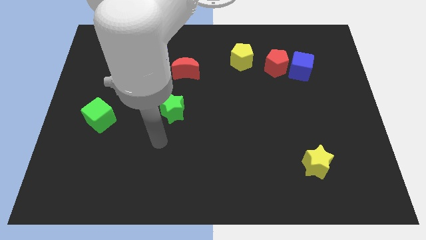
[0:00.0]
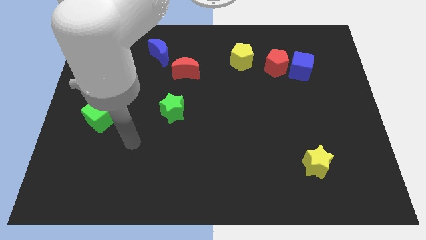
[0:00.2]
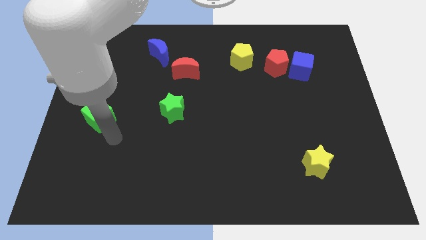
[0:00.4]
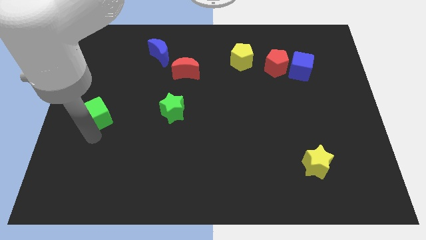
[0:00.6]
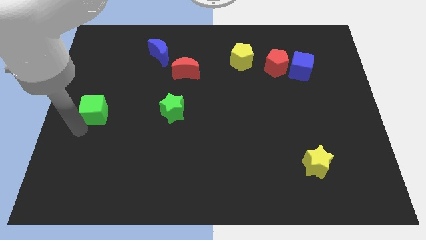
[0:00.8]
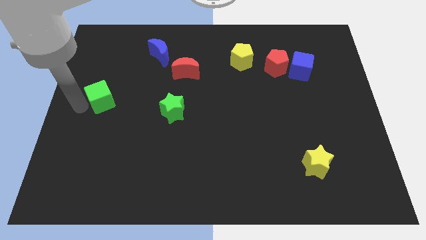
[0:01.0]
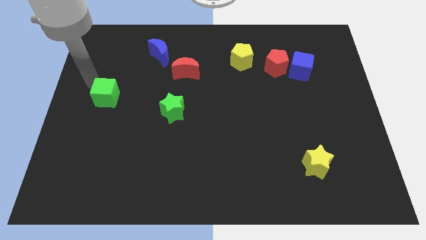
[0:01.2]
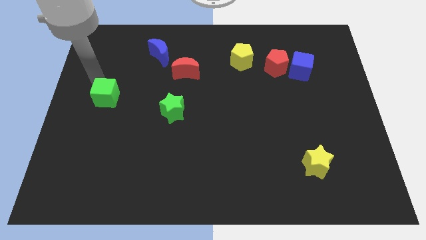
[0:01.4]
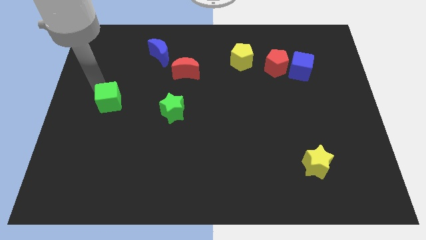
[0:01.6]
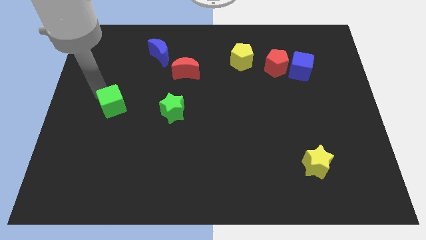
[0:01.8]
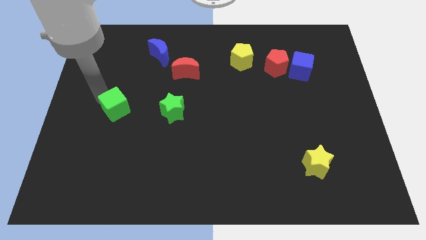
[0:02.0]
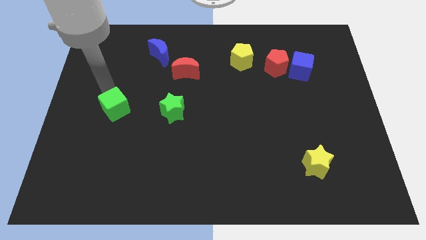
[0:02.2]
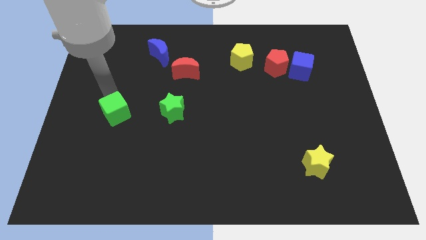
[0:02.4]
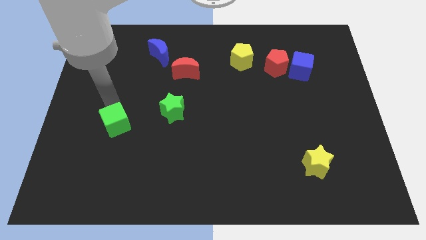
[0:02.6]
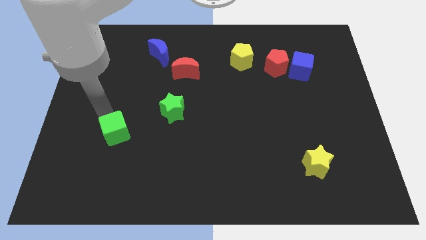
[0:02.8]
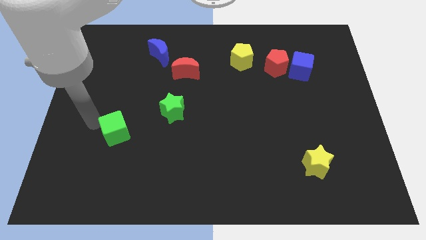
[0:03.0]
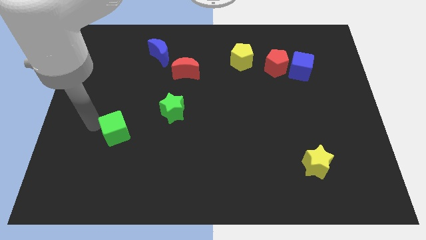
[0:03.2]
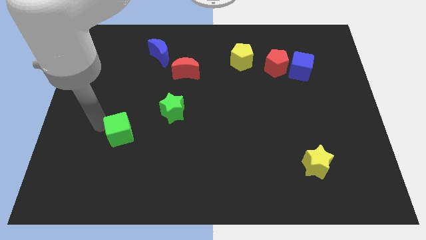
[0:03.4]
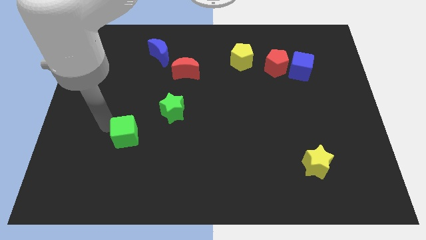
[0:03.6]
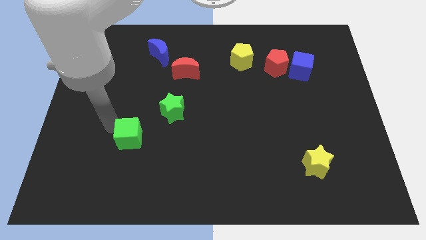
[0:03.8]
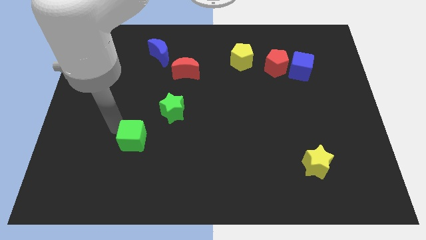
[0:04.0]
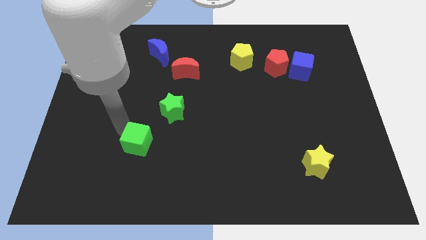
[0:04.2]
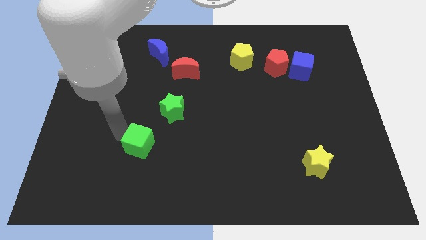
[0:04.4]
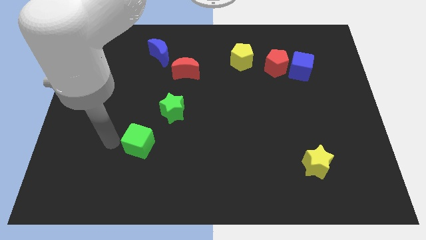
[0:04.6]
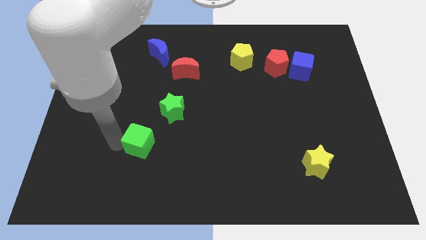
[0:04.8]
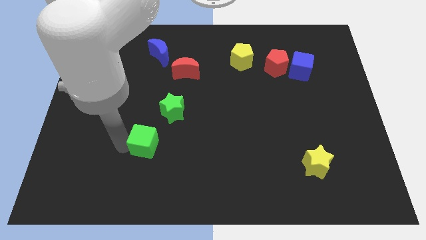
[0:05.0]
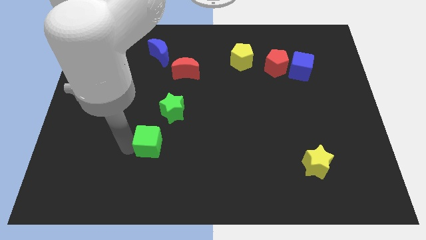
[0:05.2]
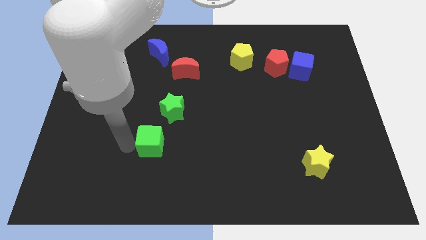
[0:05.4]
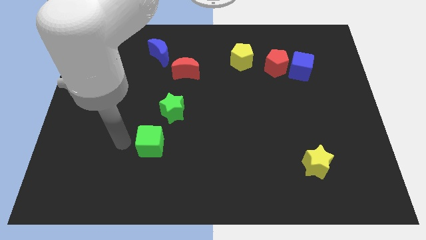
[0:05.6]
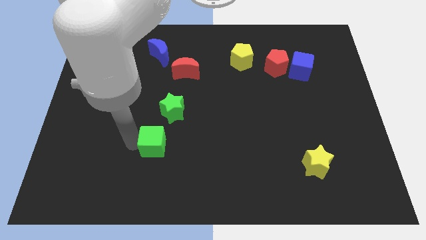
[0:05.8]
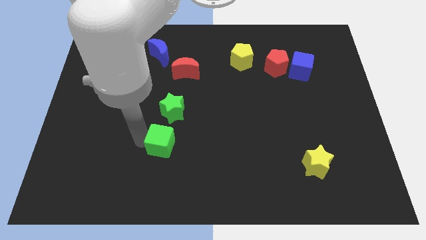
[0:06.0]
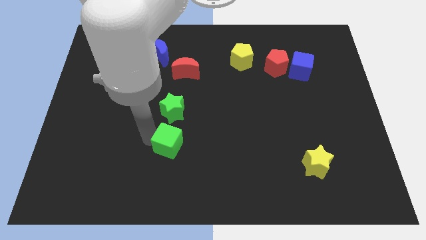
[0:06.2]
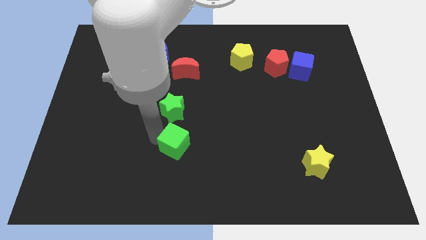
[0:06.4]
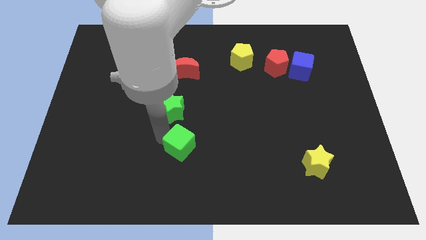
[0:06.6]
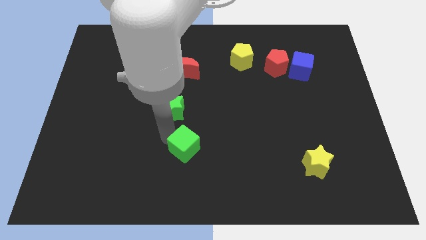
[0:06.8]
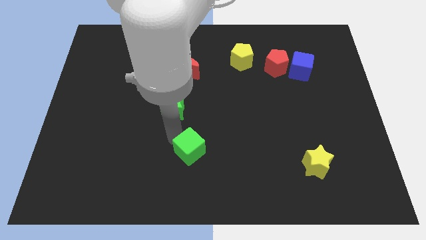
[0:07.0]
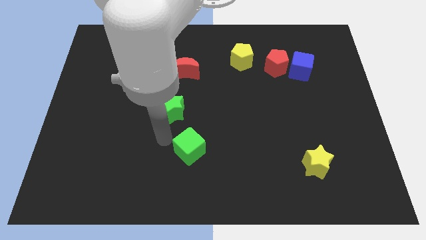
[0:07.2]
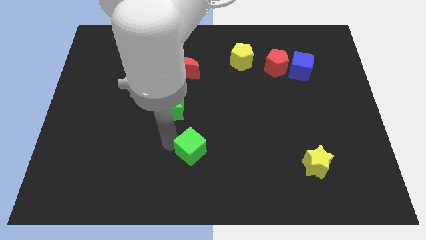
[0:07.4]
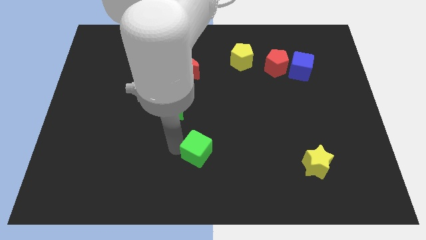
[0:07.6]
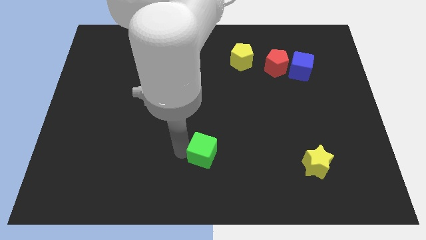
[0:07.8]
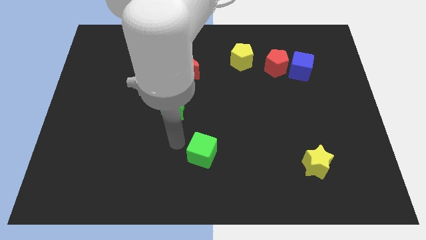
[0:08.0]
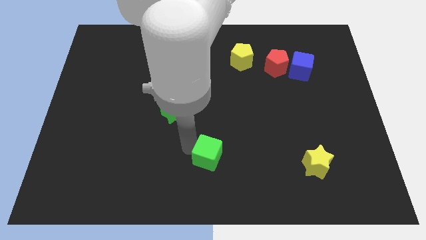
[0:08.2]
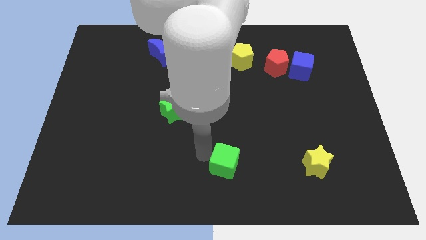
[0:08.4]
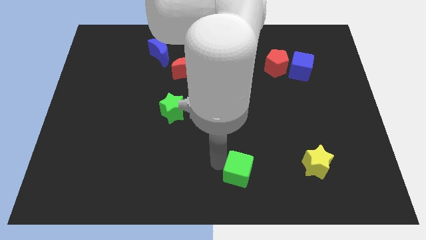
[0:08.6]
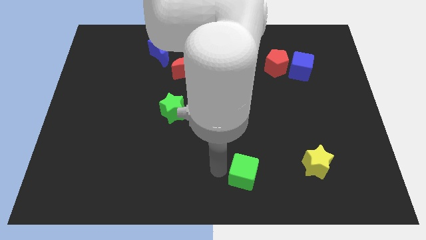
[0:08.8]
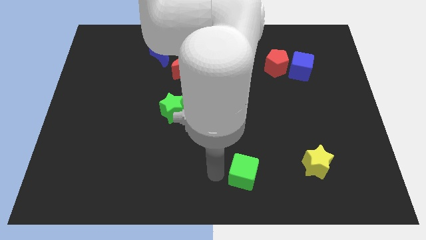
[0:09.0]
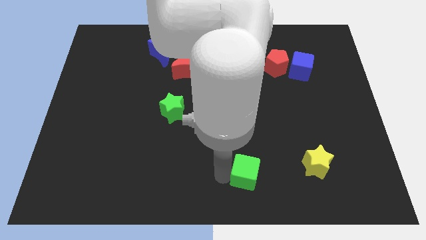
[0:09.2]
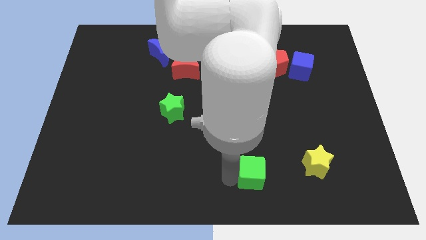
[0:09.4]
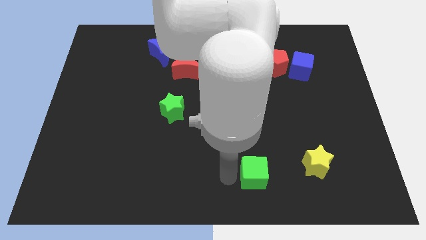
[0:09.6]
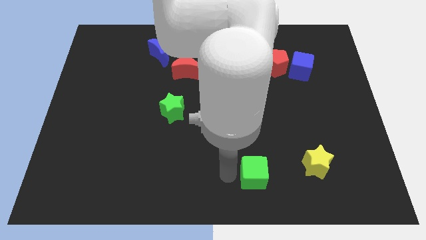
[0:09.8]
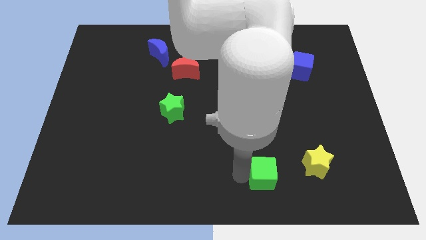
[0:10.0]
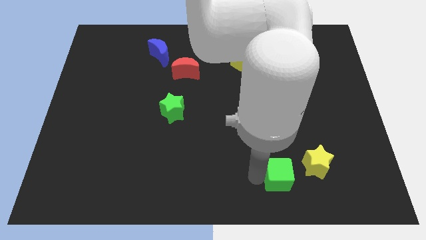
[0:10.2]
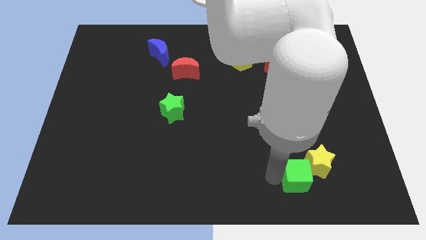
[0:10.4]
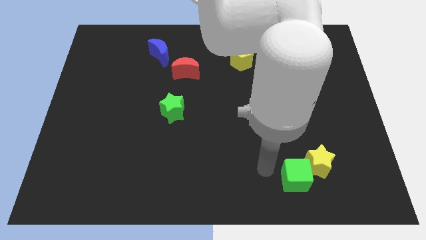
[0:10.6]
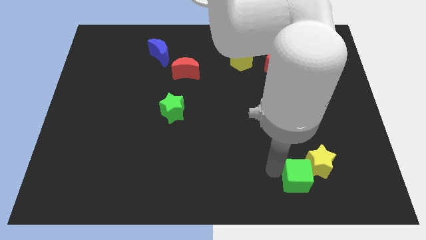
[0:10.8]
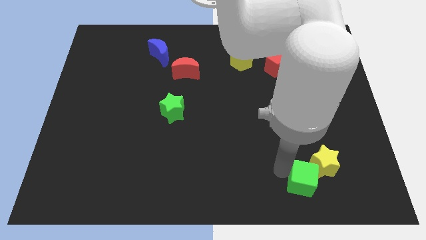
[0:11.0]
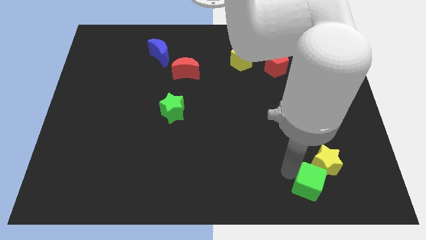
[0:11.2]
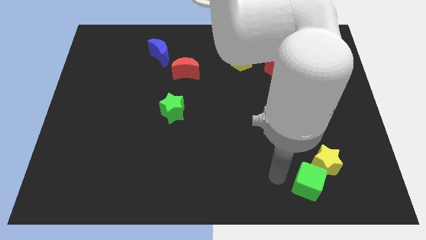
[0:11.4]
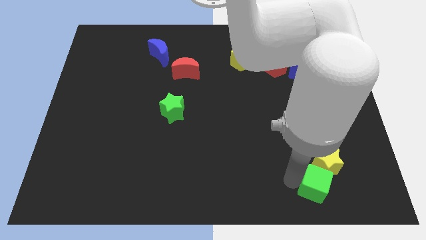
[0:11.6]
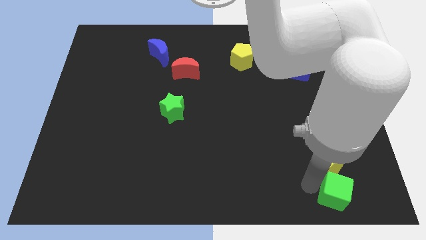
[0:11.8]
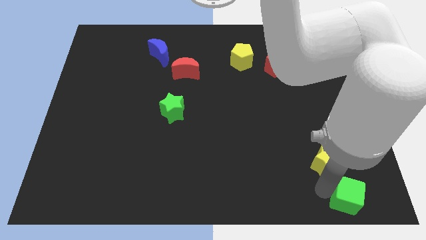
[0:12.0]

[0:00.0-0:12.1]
push the green cube to the lower right corner
